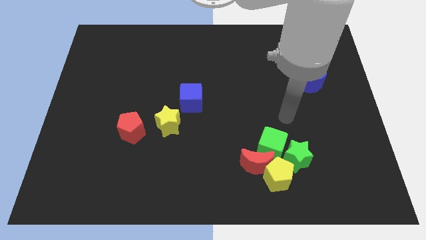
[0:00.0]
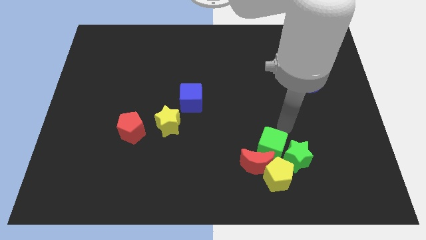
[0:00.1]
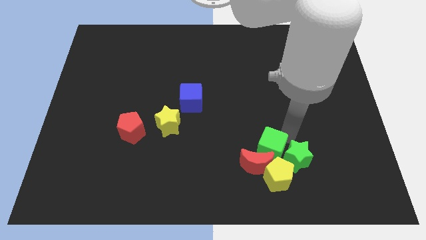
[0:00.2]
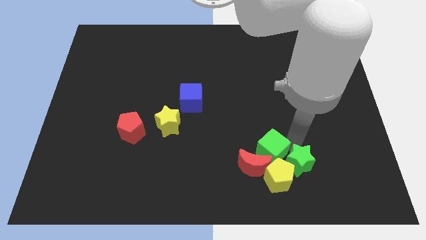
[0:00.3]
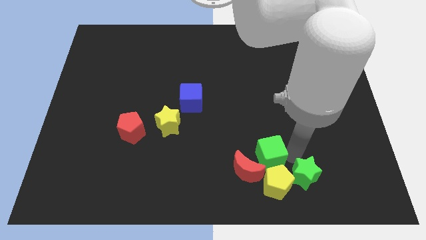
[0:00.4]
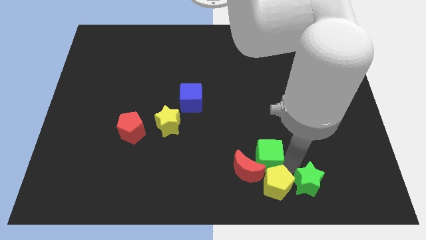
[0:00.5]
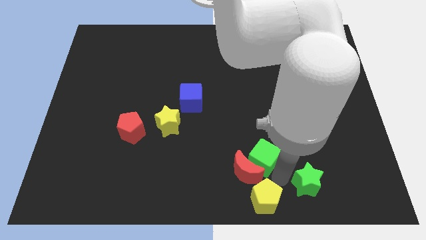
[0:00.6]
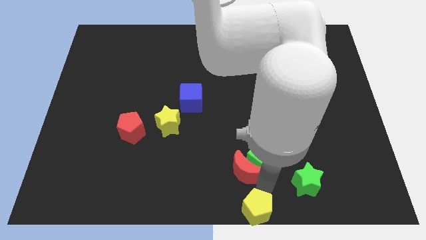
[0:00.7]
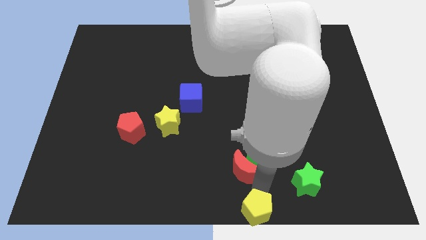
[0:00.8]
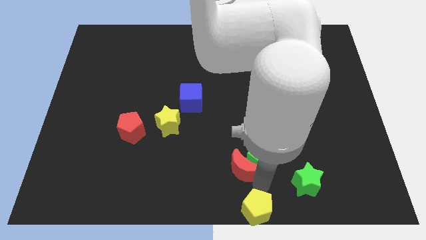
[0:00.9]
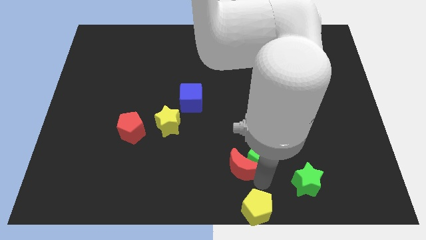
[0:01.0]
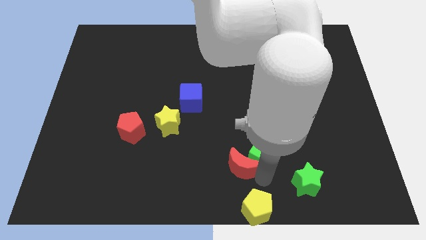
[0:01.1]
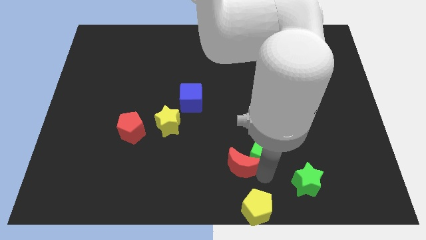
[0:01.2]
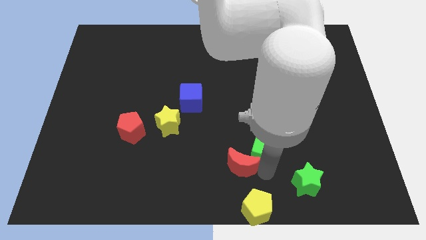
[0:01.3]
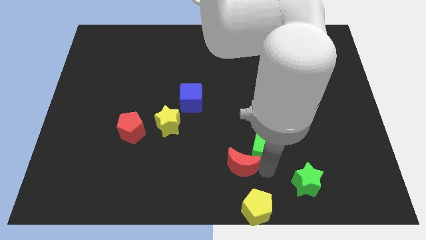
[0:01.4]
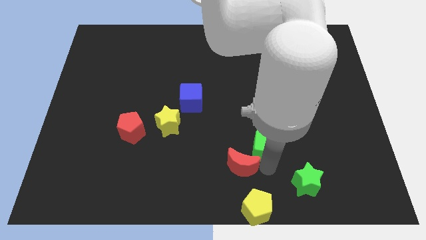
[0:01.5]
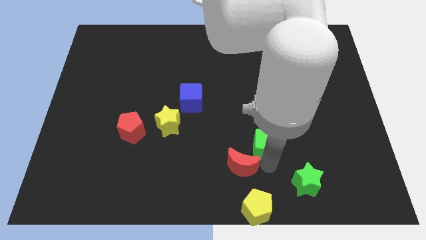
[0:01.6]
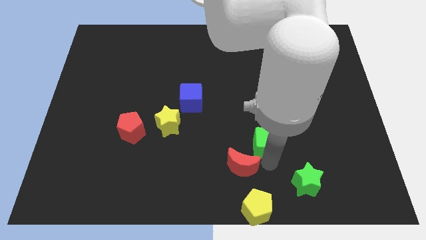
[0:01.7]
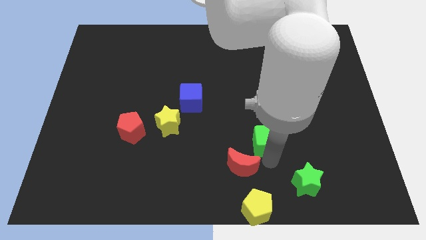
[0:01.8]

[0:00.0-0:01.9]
pull the green cube apart from the green star, red moon, and yellow pentagon

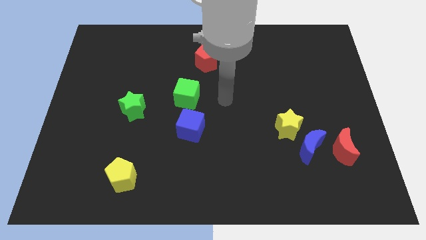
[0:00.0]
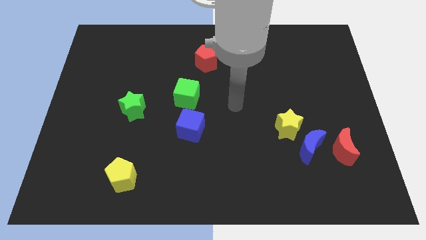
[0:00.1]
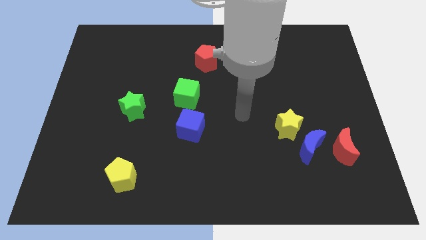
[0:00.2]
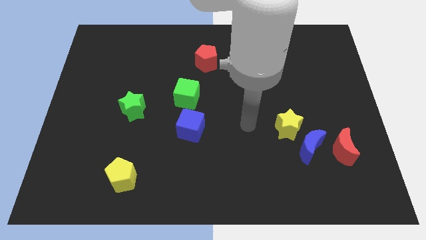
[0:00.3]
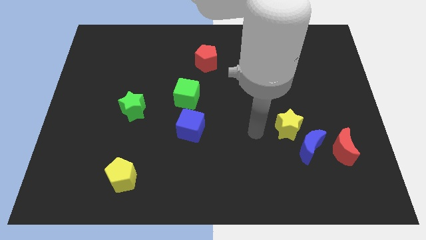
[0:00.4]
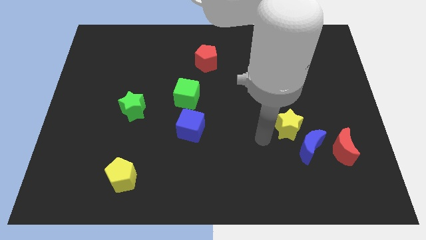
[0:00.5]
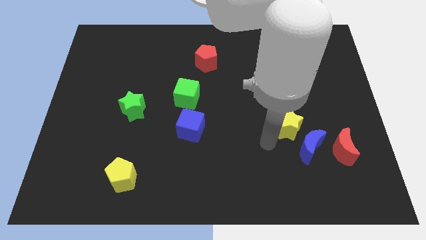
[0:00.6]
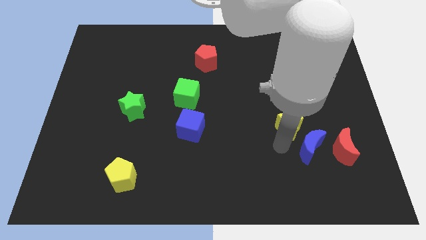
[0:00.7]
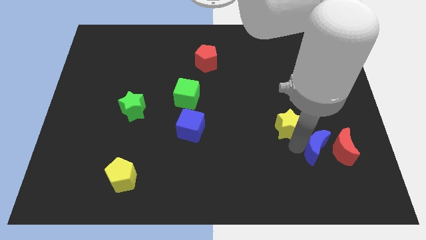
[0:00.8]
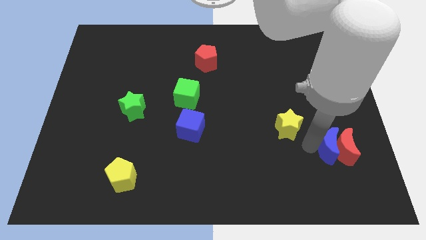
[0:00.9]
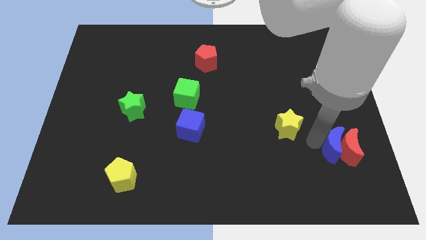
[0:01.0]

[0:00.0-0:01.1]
pull the yellow star apart from the blue moon

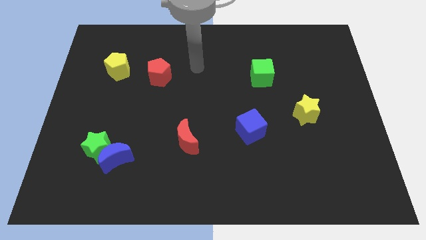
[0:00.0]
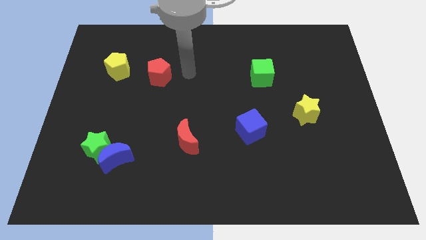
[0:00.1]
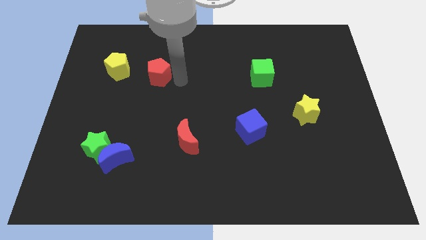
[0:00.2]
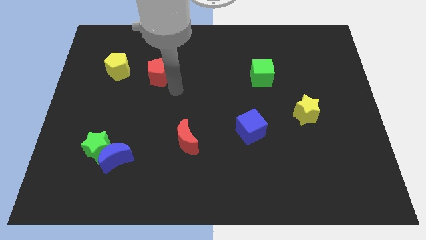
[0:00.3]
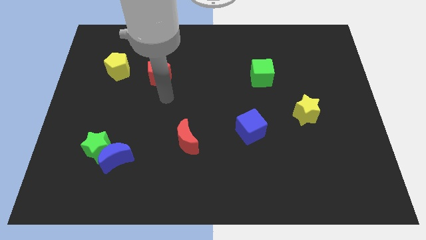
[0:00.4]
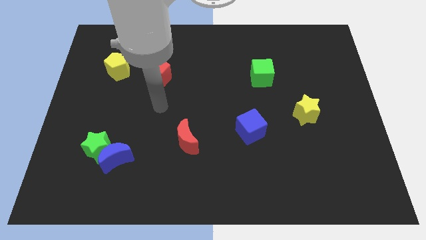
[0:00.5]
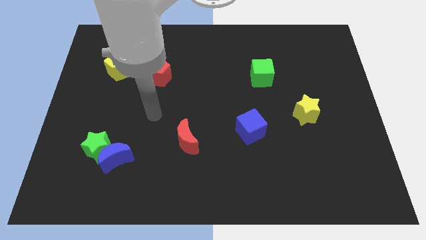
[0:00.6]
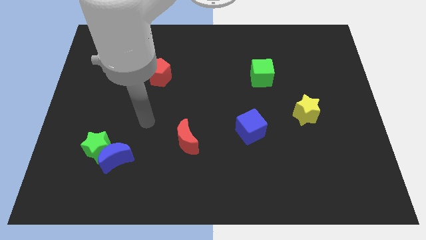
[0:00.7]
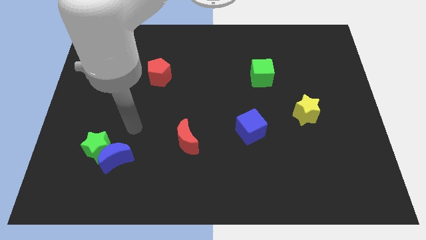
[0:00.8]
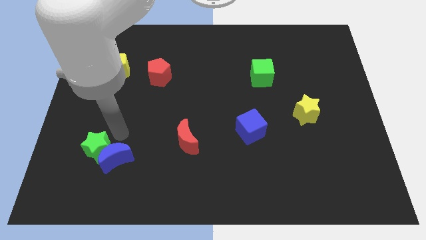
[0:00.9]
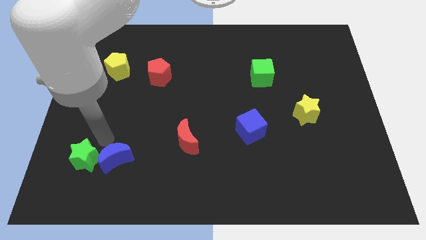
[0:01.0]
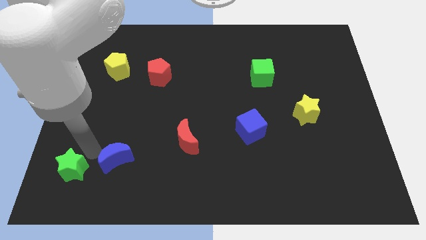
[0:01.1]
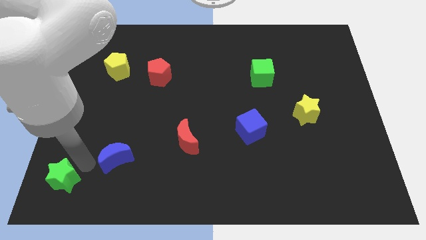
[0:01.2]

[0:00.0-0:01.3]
separate the blue moon from the green star

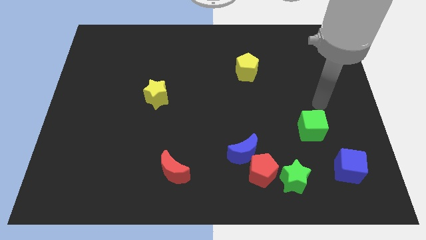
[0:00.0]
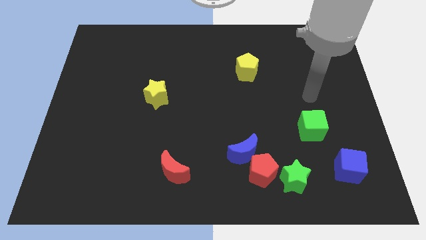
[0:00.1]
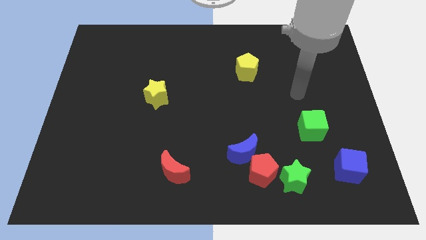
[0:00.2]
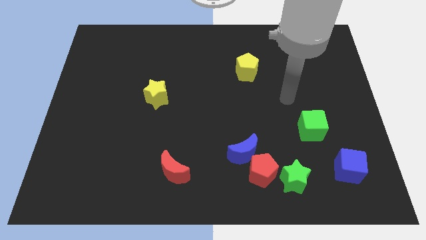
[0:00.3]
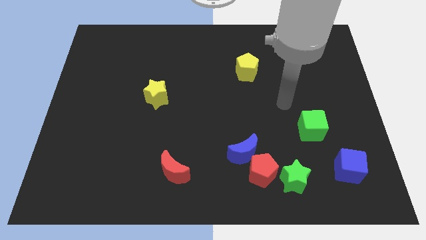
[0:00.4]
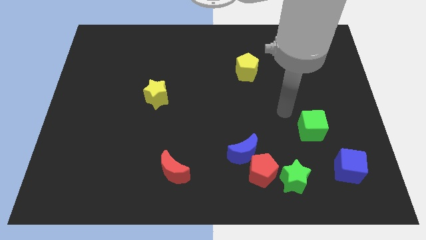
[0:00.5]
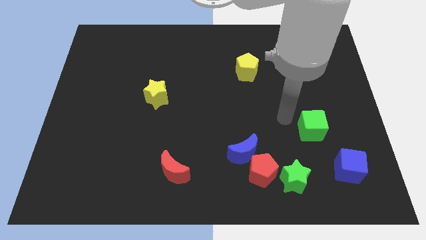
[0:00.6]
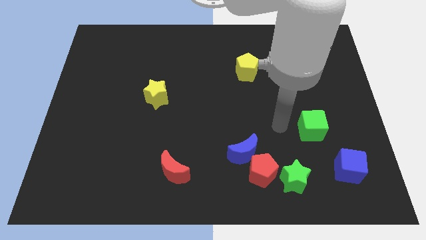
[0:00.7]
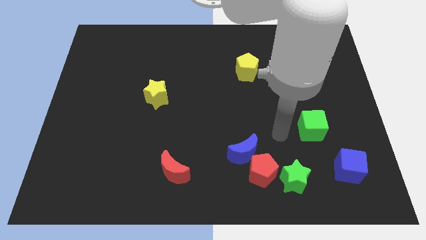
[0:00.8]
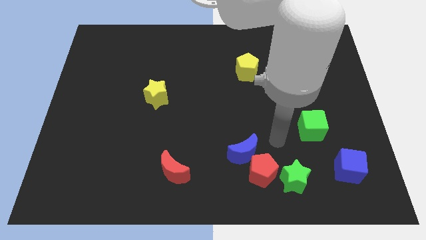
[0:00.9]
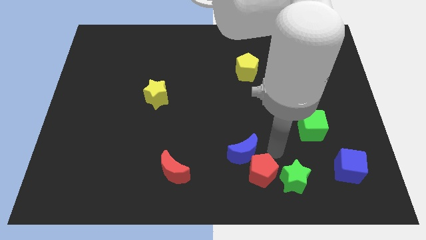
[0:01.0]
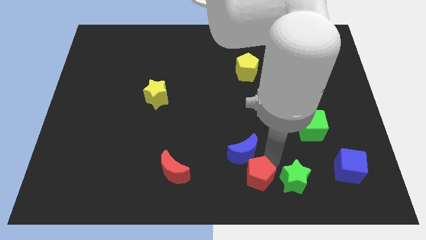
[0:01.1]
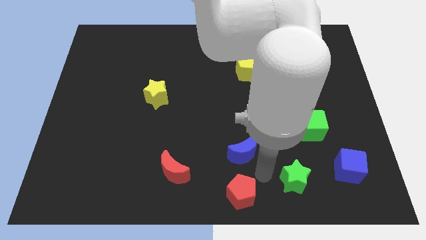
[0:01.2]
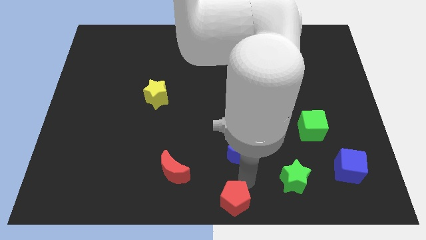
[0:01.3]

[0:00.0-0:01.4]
separate the blue moon from the red pentagon

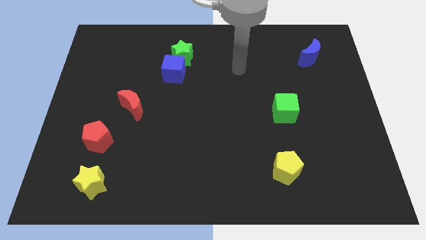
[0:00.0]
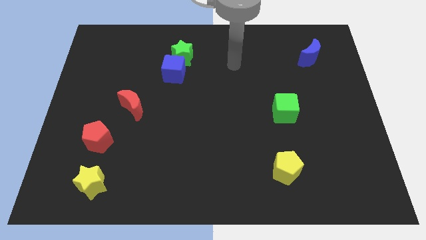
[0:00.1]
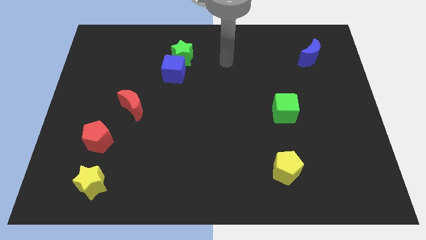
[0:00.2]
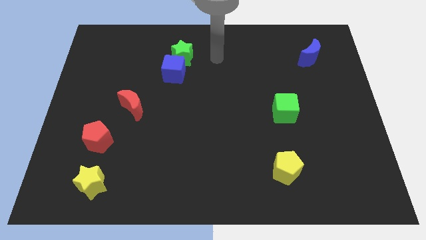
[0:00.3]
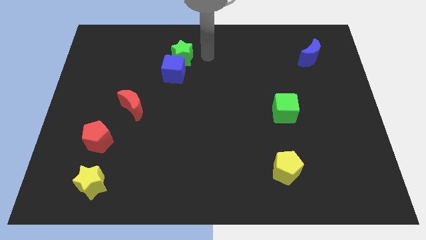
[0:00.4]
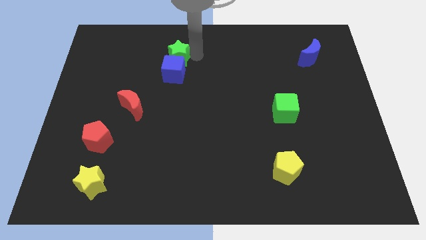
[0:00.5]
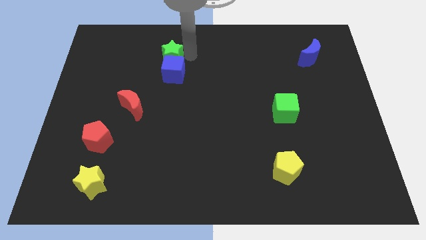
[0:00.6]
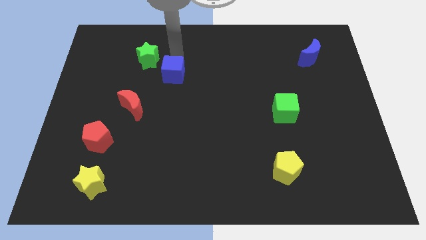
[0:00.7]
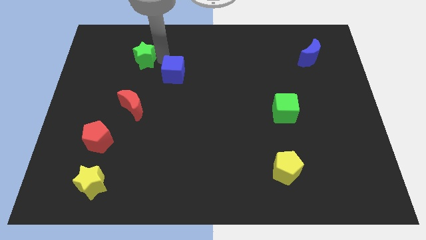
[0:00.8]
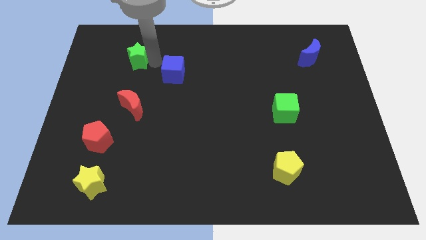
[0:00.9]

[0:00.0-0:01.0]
pull the blue cube apart from the green star

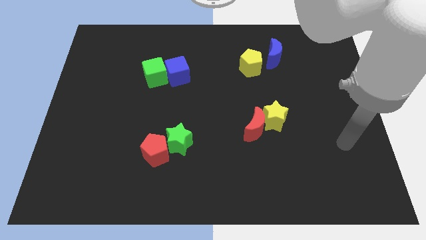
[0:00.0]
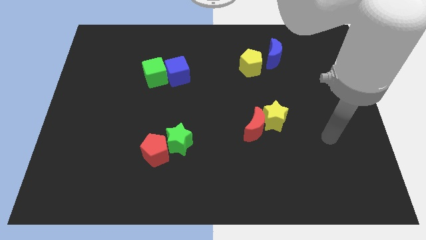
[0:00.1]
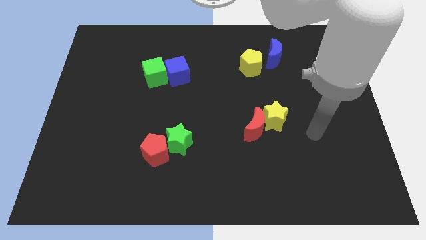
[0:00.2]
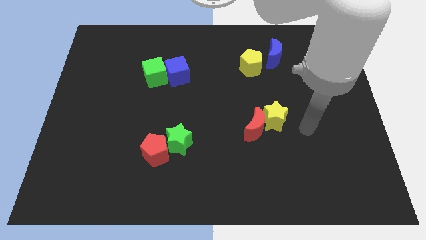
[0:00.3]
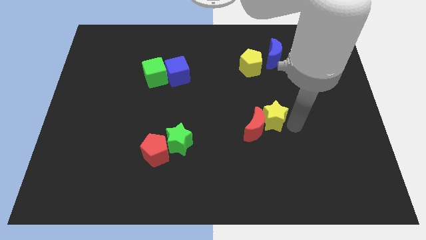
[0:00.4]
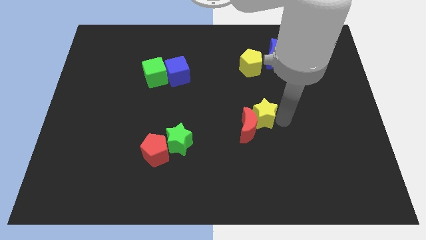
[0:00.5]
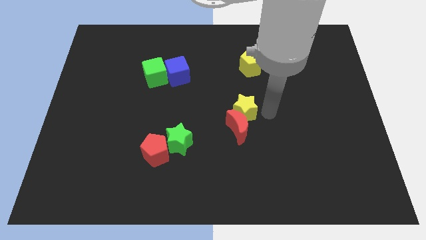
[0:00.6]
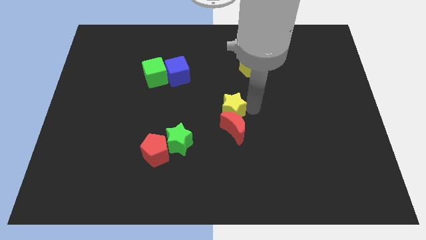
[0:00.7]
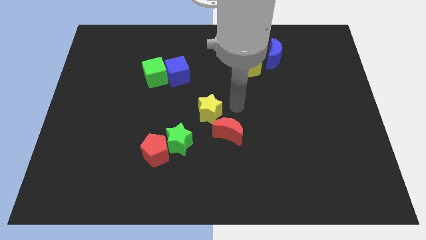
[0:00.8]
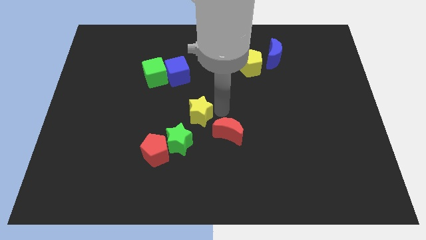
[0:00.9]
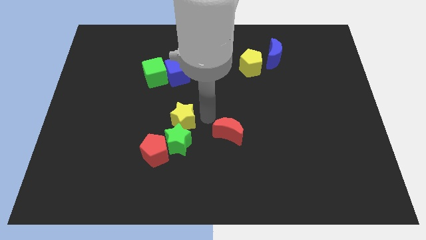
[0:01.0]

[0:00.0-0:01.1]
pull the red moon apart from the yellow star

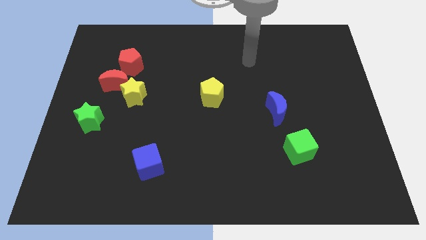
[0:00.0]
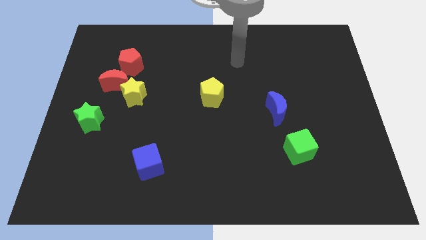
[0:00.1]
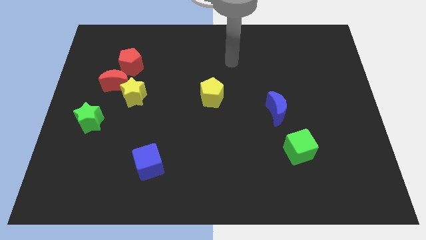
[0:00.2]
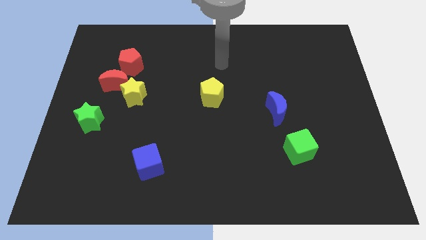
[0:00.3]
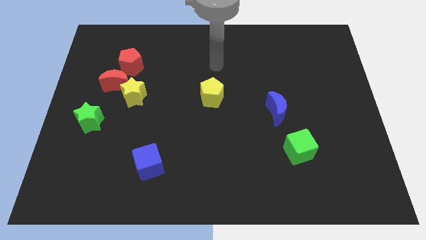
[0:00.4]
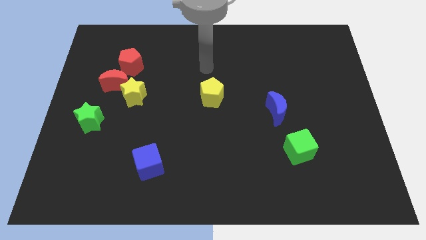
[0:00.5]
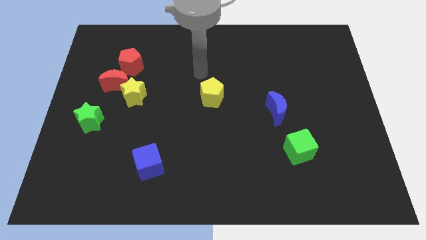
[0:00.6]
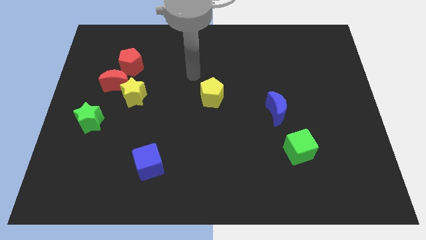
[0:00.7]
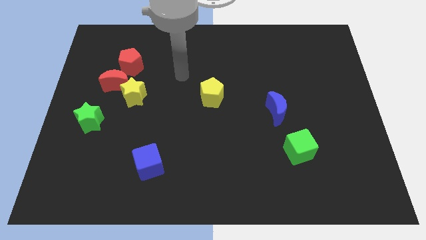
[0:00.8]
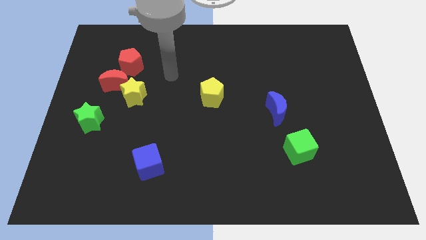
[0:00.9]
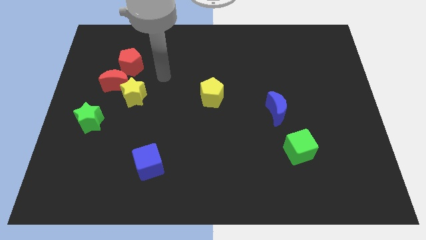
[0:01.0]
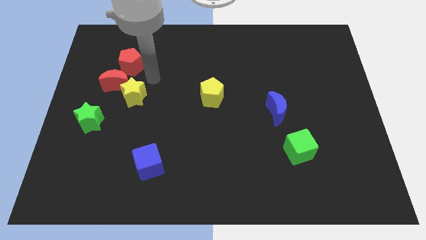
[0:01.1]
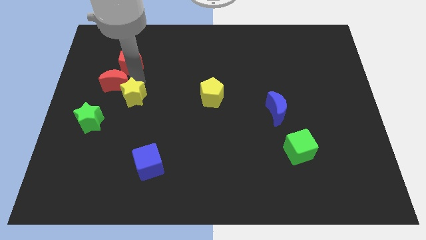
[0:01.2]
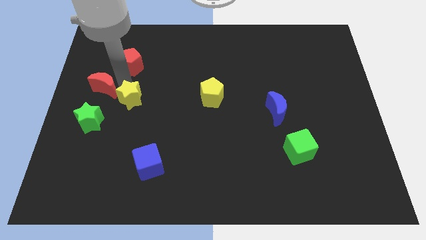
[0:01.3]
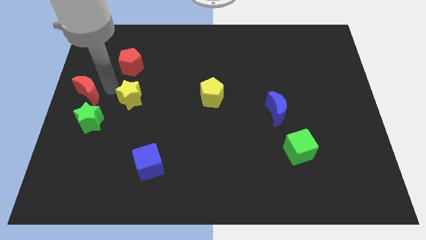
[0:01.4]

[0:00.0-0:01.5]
move the yellow star away from the red moon

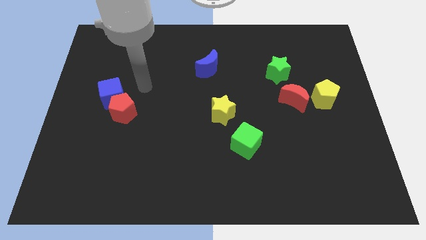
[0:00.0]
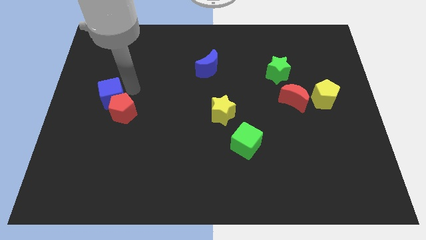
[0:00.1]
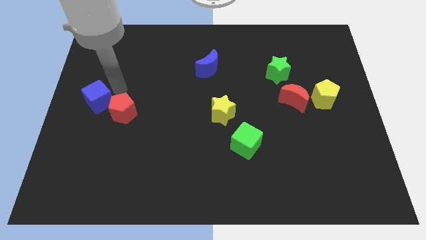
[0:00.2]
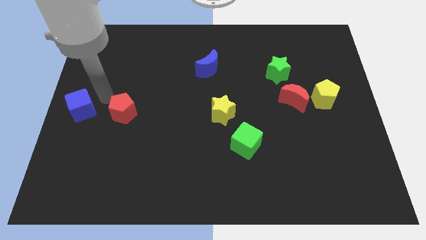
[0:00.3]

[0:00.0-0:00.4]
move the red pentagon away from the blue cube
